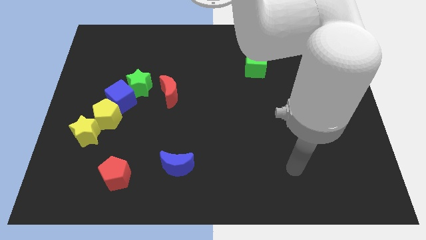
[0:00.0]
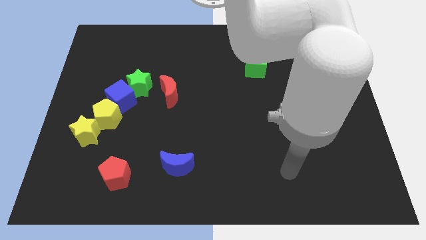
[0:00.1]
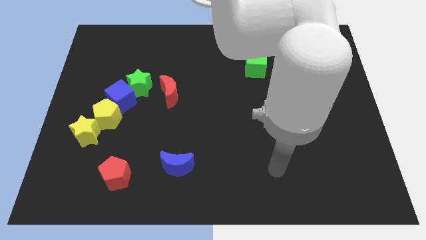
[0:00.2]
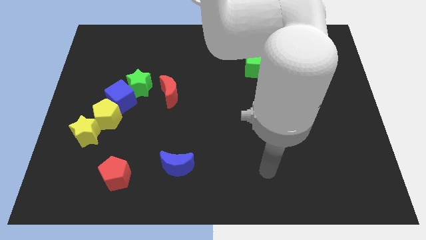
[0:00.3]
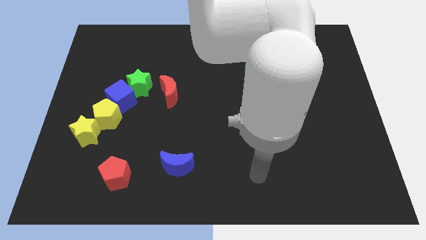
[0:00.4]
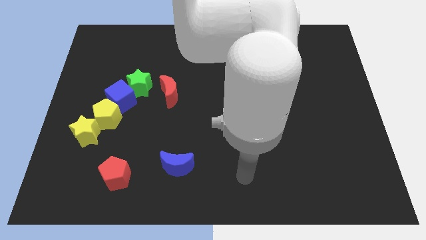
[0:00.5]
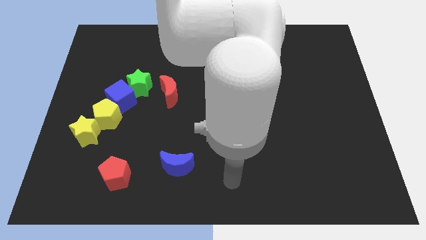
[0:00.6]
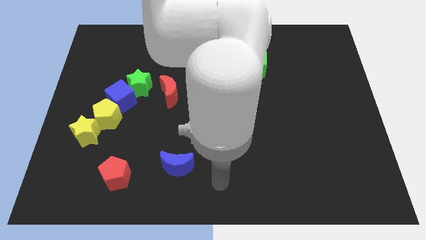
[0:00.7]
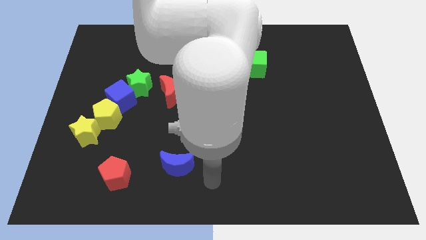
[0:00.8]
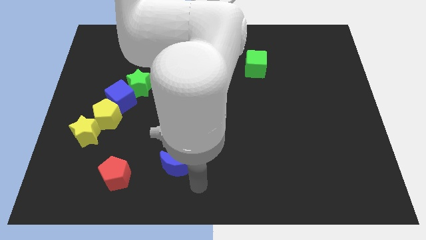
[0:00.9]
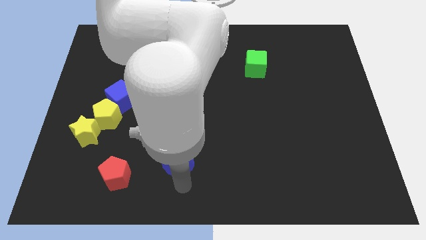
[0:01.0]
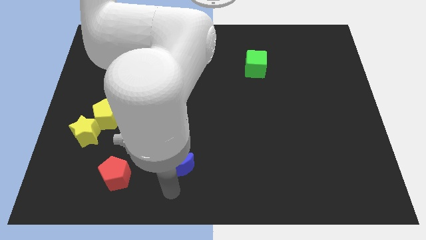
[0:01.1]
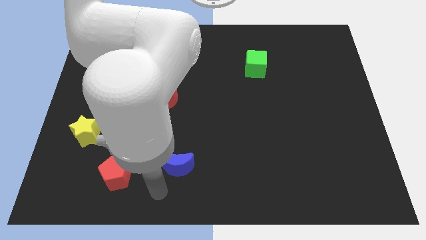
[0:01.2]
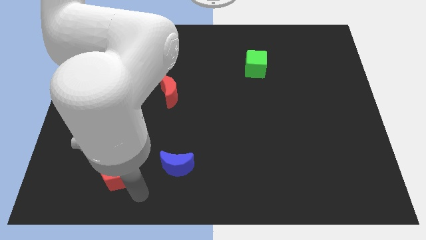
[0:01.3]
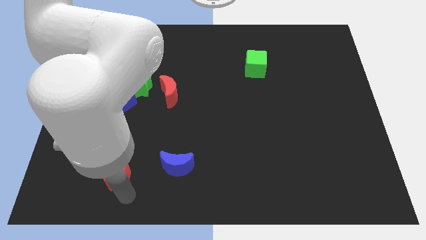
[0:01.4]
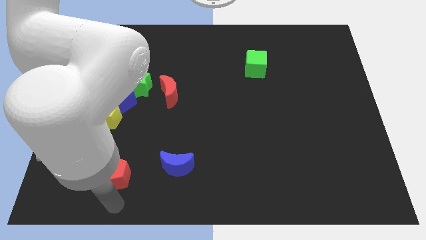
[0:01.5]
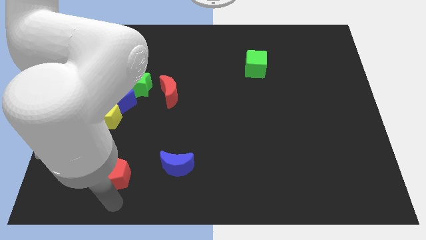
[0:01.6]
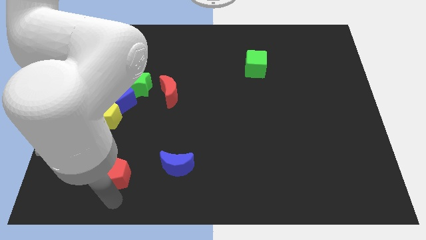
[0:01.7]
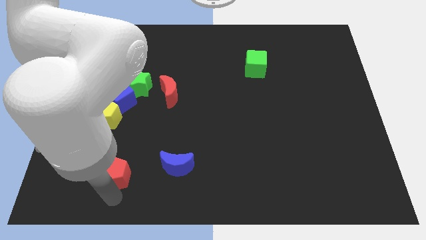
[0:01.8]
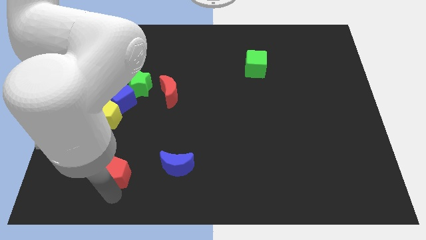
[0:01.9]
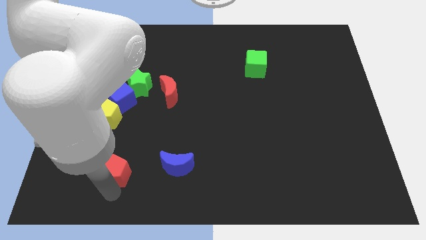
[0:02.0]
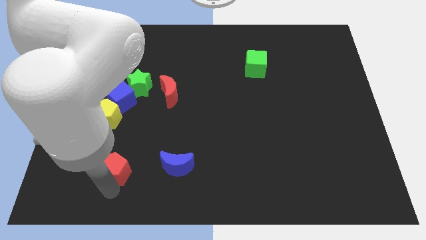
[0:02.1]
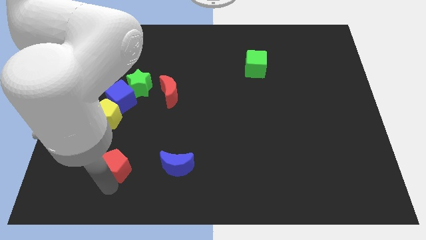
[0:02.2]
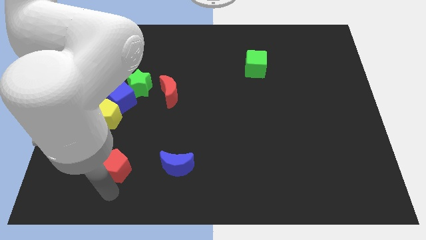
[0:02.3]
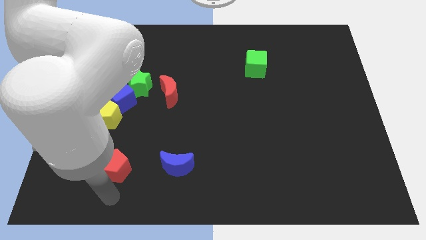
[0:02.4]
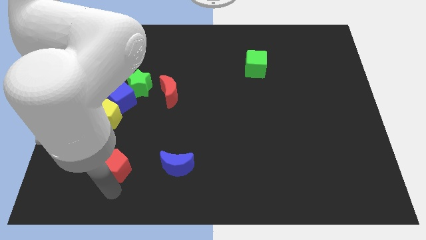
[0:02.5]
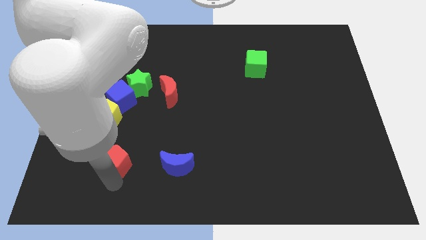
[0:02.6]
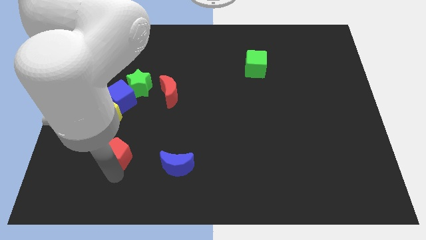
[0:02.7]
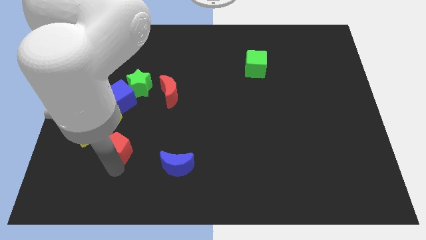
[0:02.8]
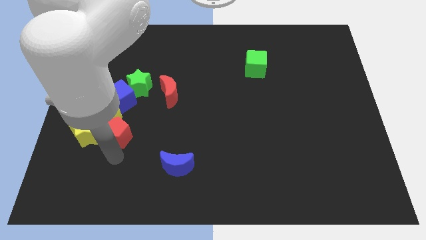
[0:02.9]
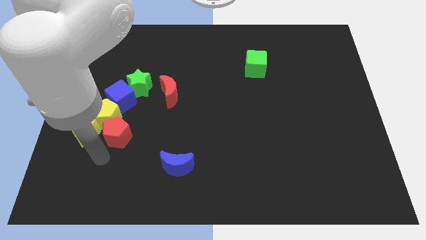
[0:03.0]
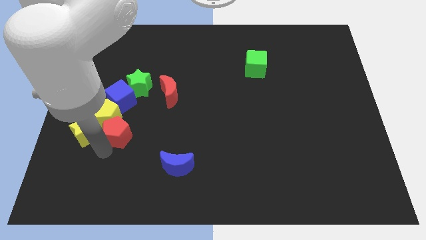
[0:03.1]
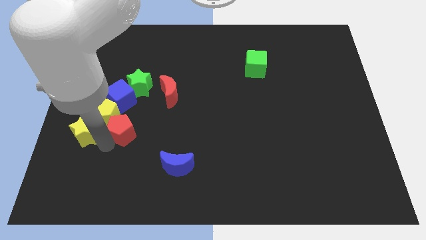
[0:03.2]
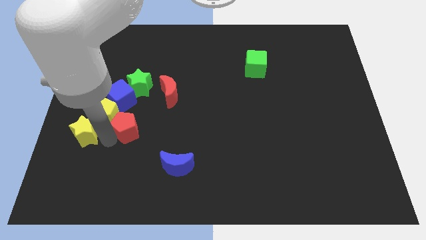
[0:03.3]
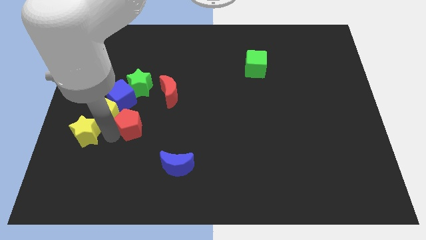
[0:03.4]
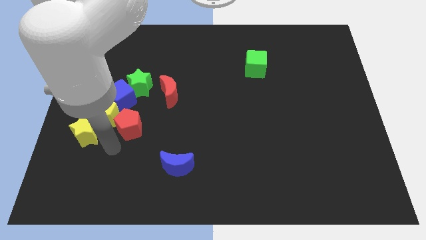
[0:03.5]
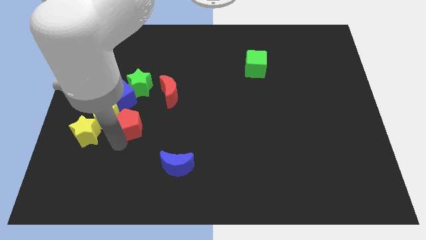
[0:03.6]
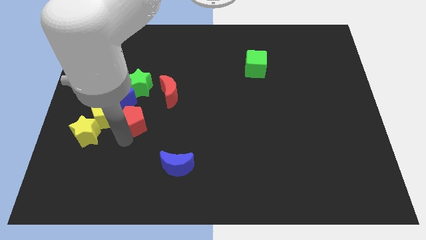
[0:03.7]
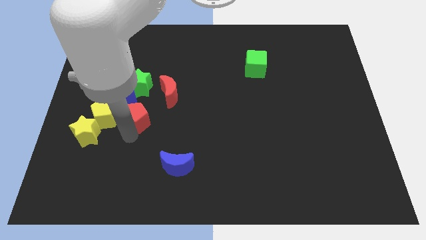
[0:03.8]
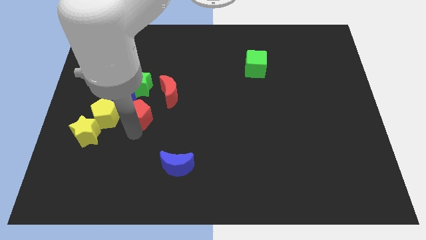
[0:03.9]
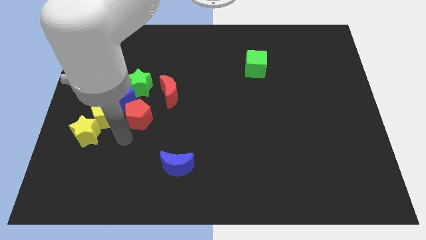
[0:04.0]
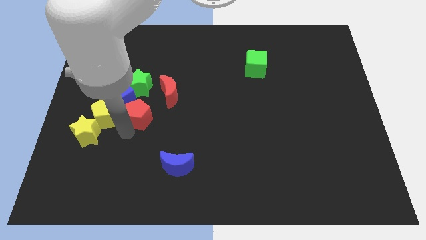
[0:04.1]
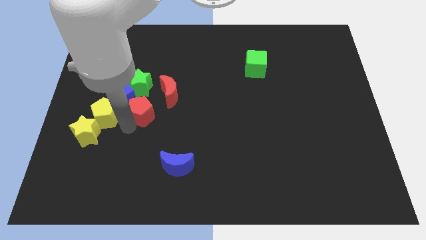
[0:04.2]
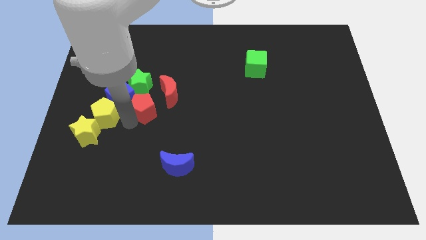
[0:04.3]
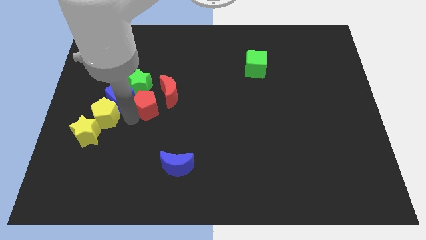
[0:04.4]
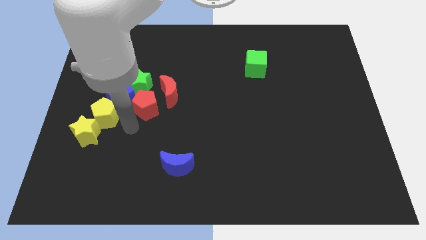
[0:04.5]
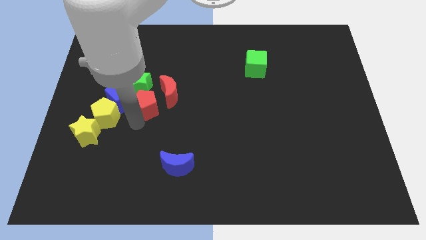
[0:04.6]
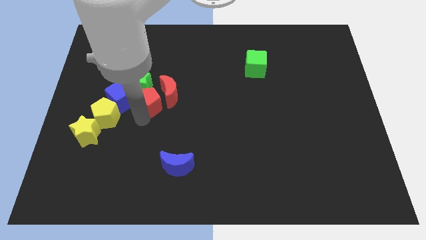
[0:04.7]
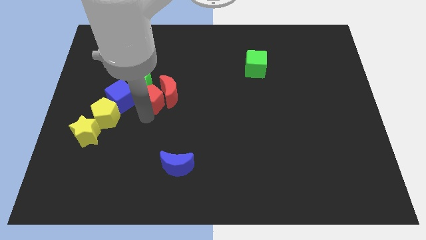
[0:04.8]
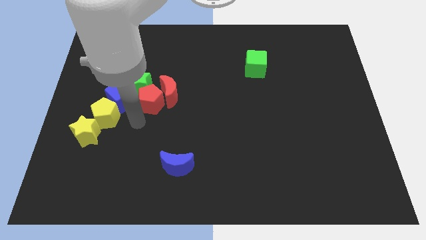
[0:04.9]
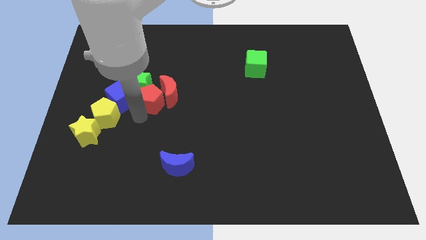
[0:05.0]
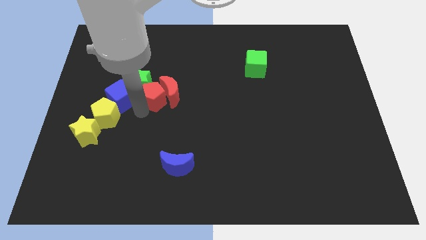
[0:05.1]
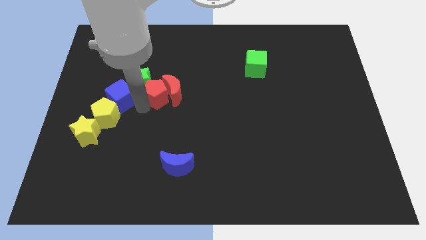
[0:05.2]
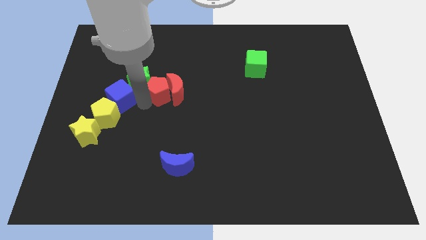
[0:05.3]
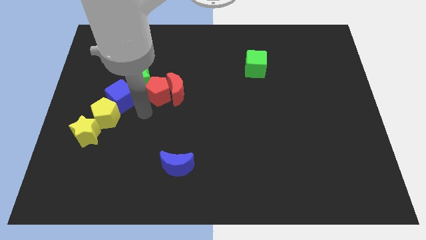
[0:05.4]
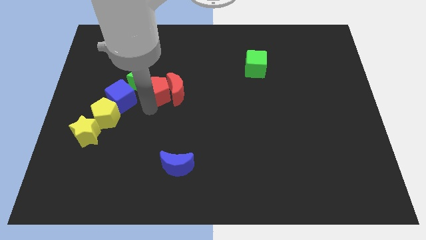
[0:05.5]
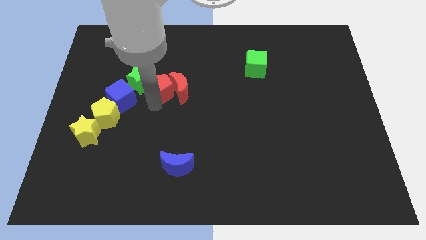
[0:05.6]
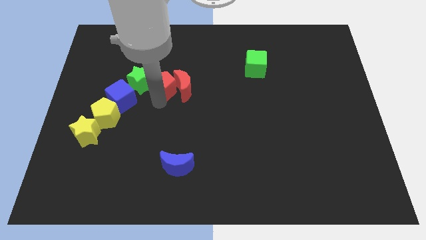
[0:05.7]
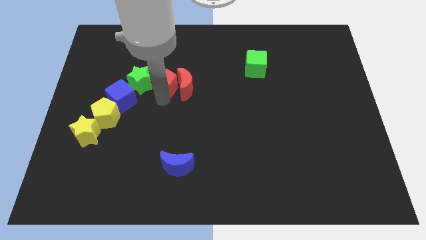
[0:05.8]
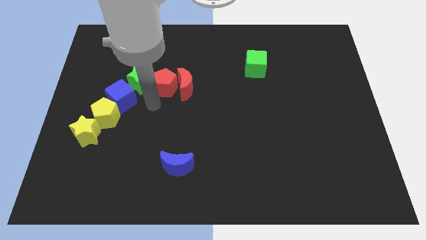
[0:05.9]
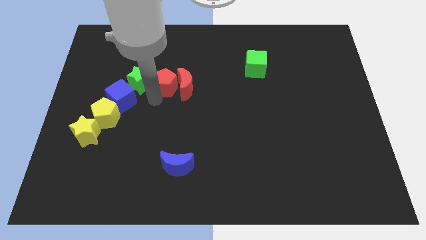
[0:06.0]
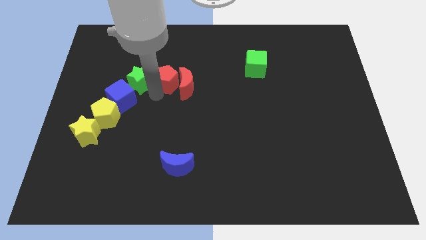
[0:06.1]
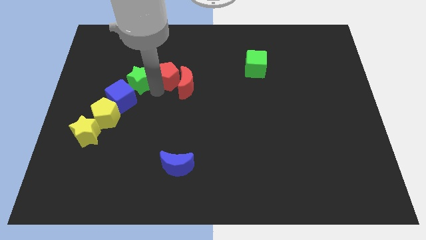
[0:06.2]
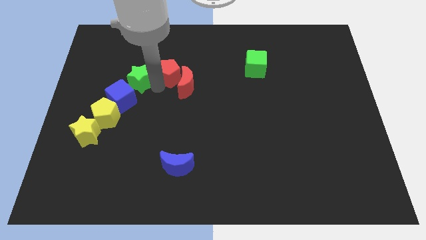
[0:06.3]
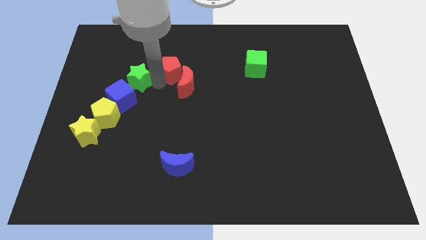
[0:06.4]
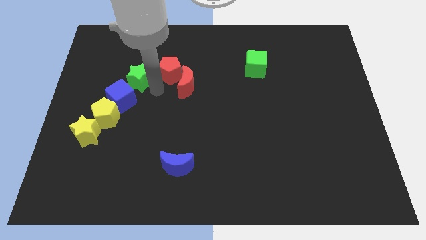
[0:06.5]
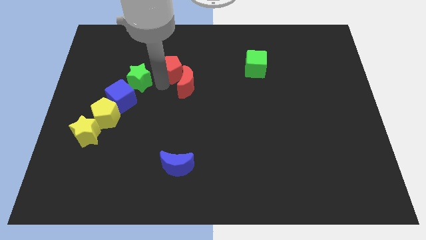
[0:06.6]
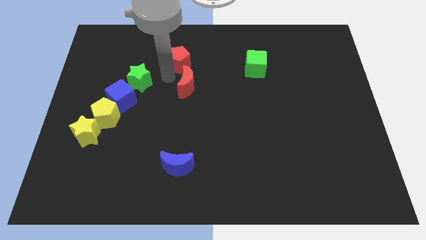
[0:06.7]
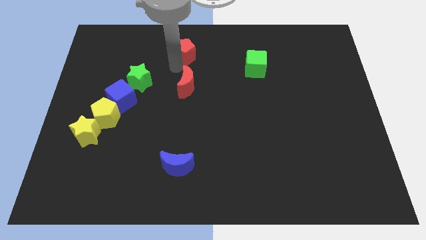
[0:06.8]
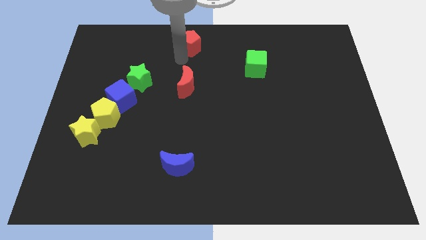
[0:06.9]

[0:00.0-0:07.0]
slide the red pentagon to the top side
